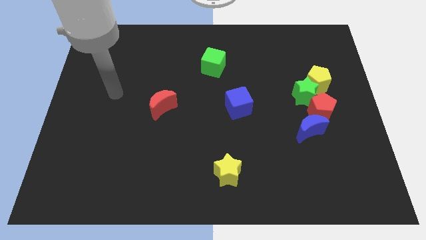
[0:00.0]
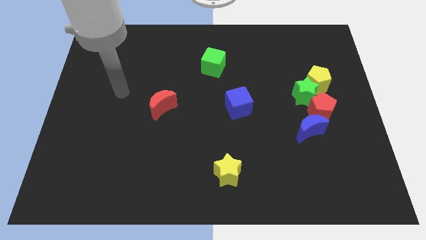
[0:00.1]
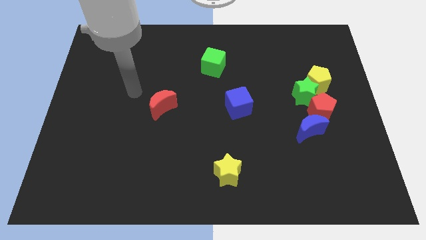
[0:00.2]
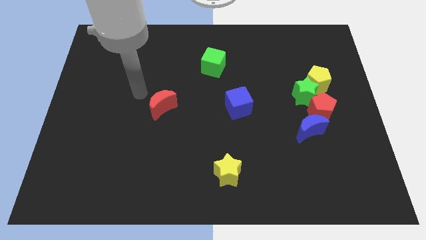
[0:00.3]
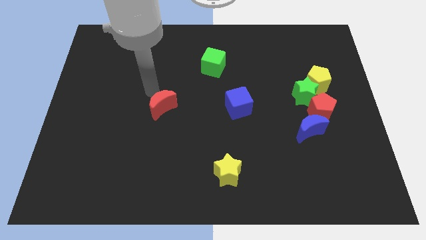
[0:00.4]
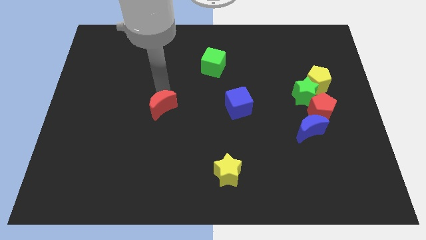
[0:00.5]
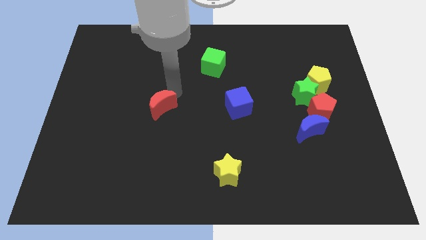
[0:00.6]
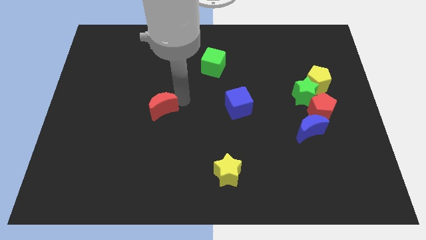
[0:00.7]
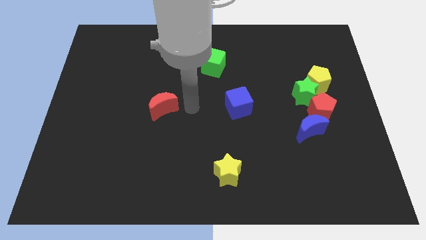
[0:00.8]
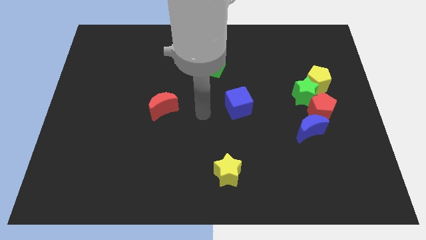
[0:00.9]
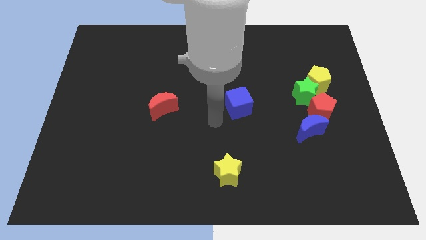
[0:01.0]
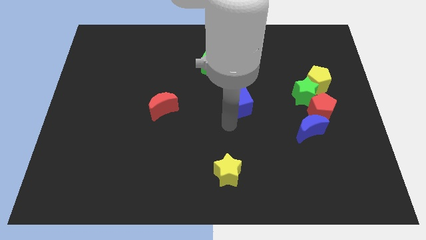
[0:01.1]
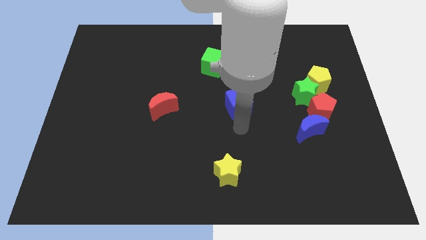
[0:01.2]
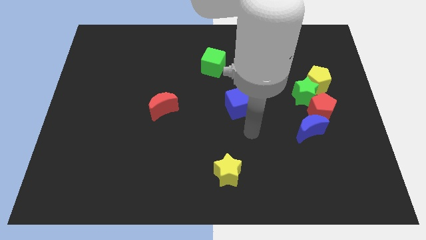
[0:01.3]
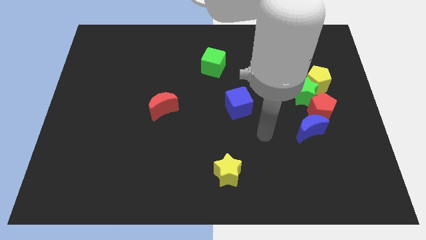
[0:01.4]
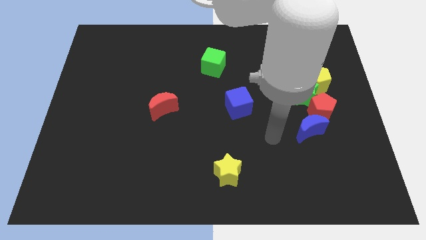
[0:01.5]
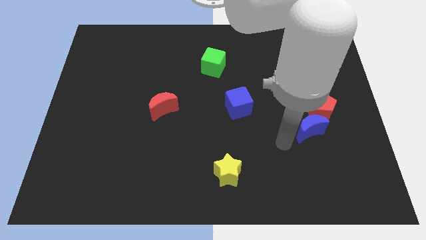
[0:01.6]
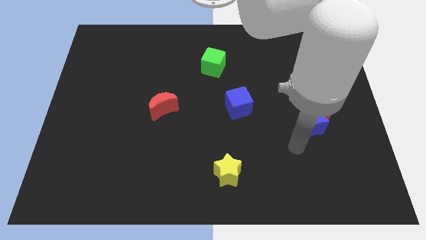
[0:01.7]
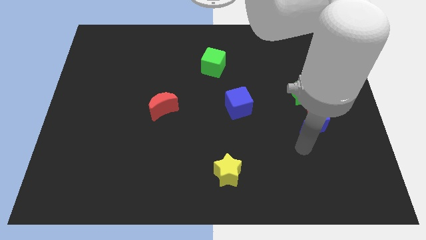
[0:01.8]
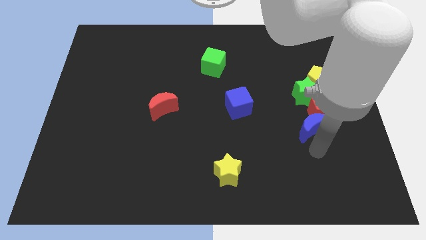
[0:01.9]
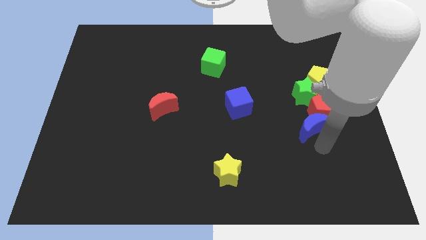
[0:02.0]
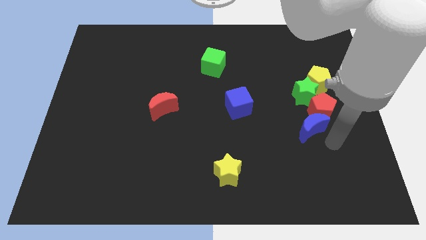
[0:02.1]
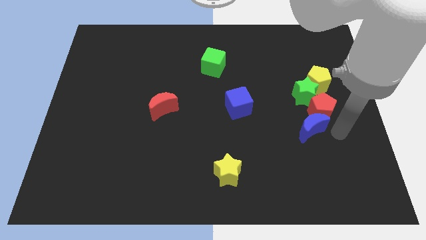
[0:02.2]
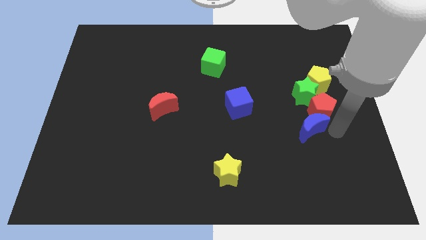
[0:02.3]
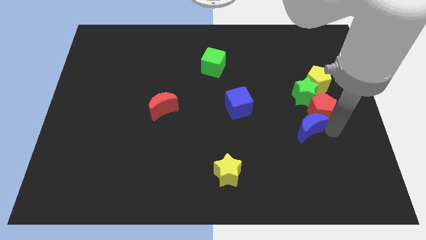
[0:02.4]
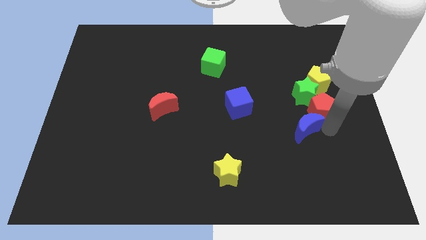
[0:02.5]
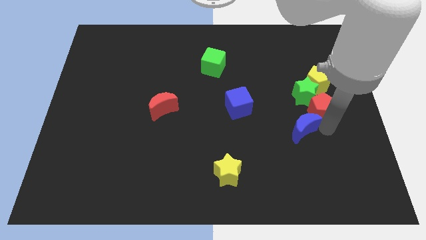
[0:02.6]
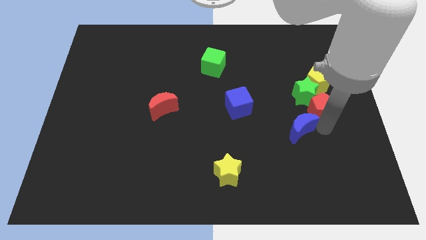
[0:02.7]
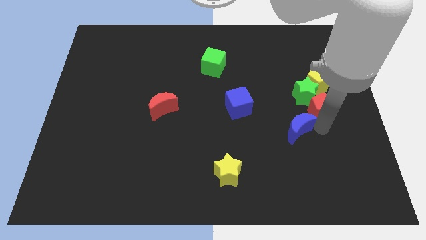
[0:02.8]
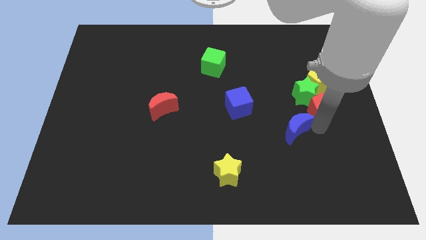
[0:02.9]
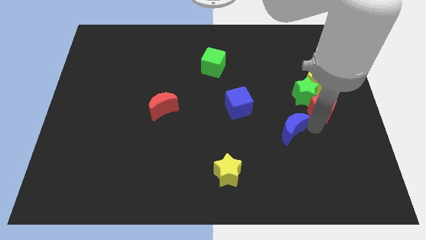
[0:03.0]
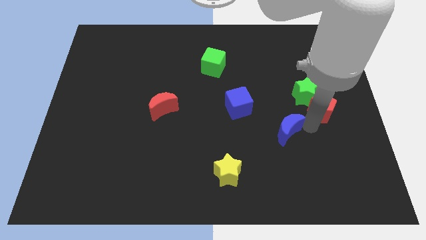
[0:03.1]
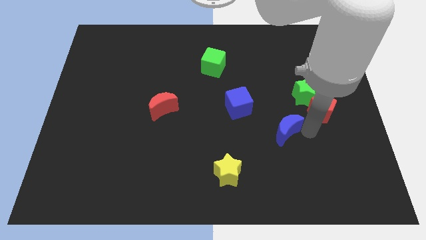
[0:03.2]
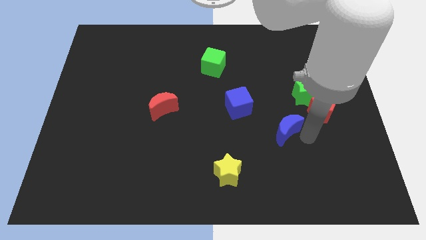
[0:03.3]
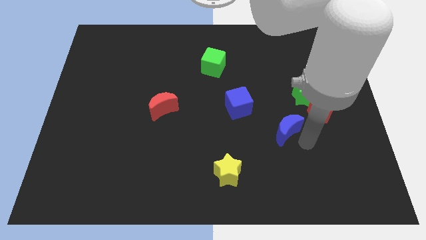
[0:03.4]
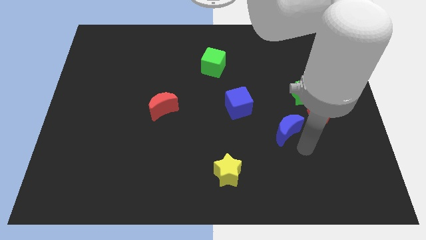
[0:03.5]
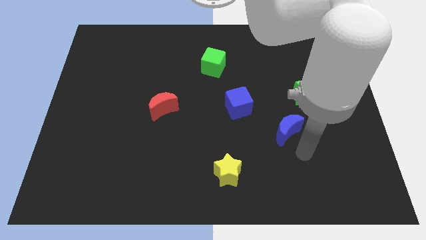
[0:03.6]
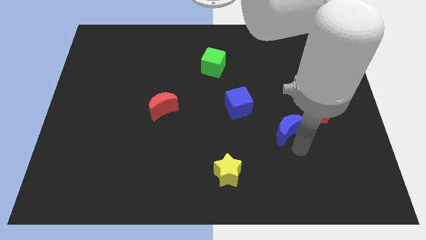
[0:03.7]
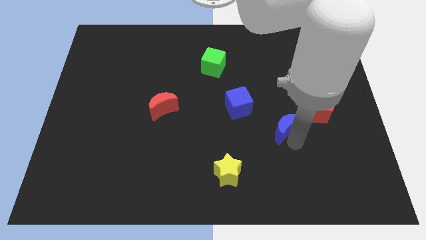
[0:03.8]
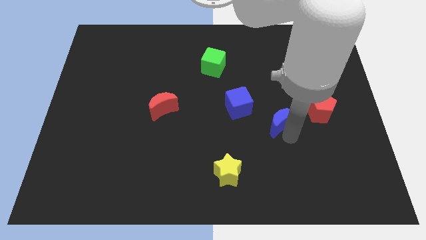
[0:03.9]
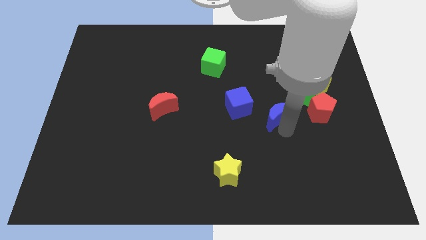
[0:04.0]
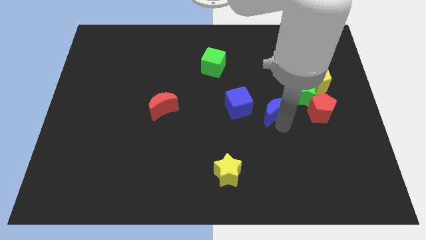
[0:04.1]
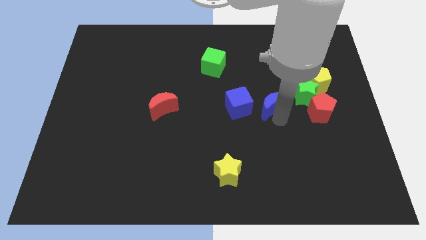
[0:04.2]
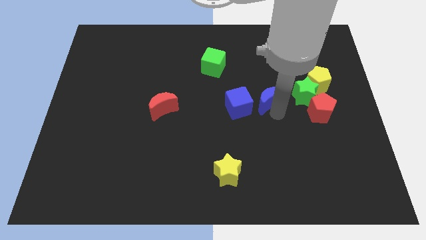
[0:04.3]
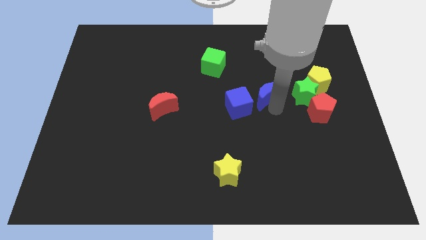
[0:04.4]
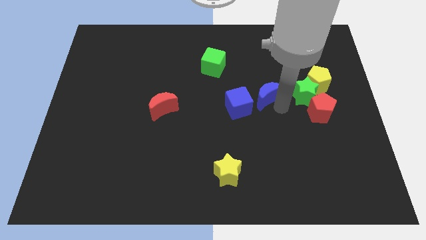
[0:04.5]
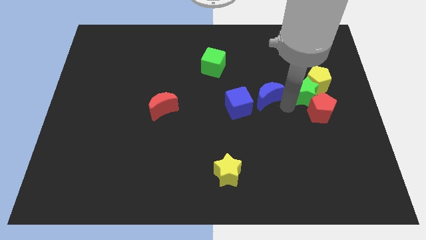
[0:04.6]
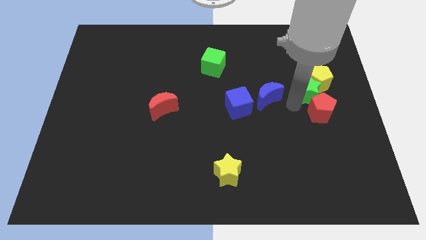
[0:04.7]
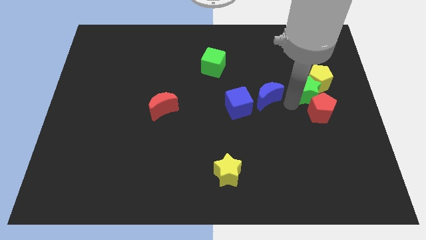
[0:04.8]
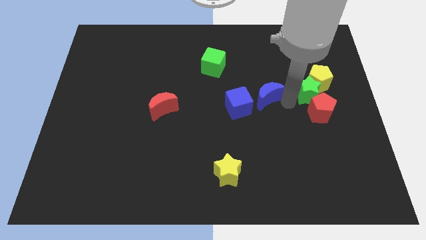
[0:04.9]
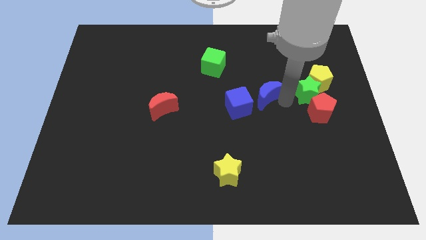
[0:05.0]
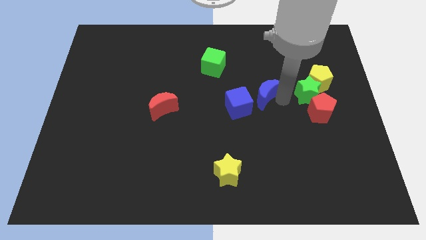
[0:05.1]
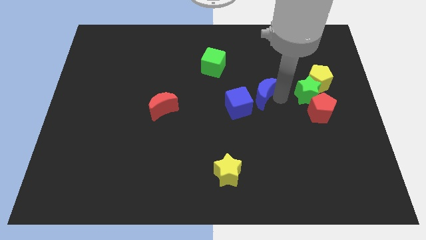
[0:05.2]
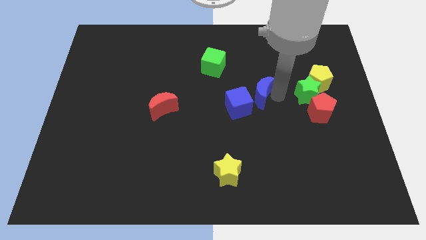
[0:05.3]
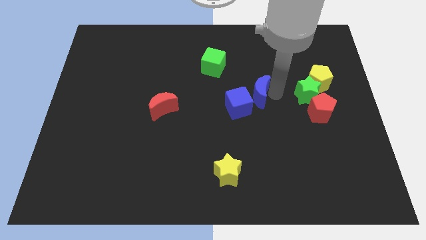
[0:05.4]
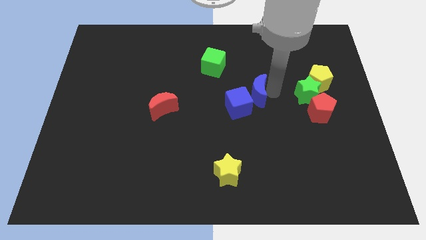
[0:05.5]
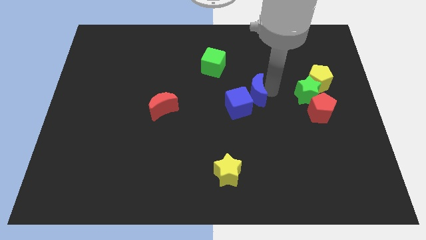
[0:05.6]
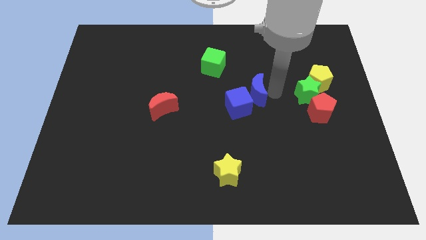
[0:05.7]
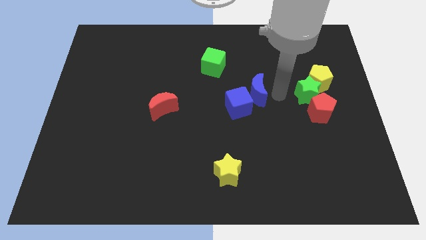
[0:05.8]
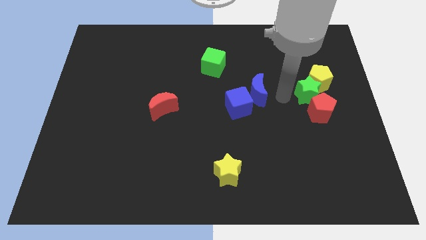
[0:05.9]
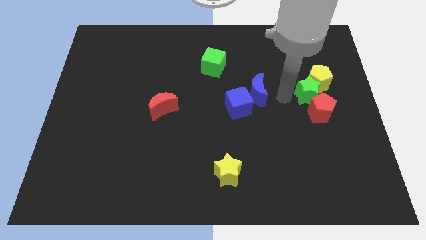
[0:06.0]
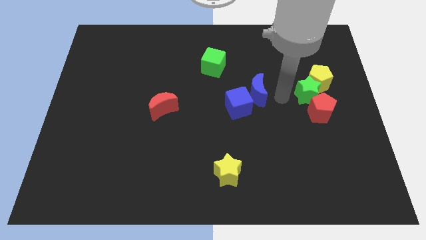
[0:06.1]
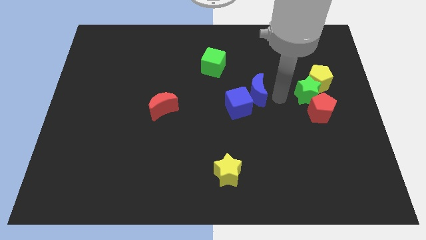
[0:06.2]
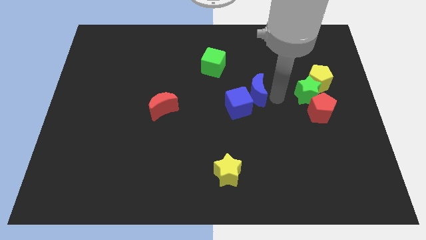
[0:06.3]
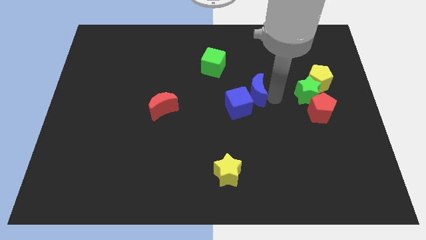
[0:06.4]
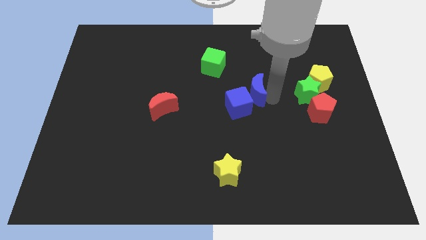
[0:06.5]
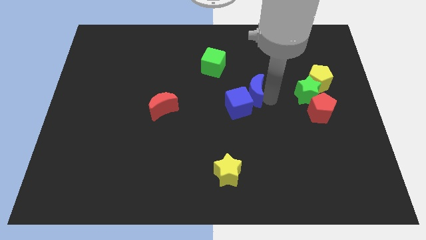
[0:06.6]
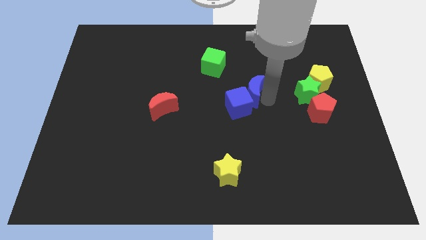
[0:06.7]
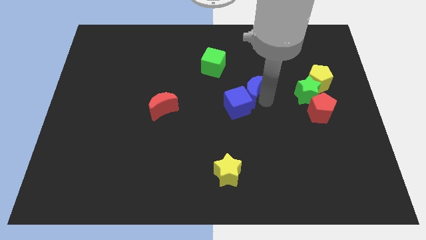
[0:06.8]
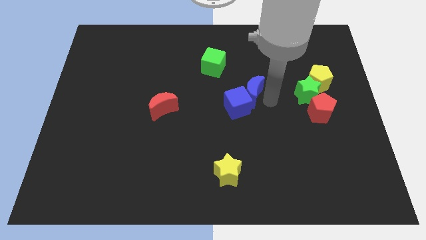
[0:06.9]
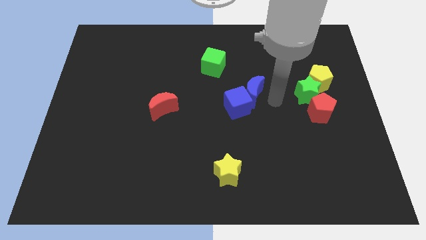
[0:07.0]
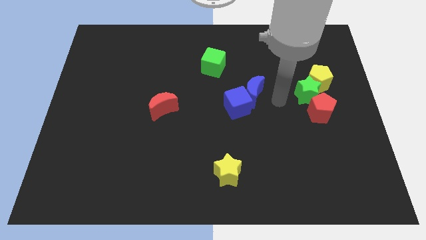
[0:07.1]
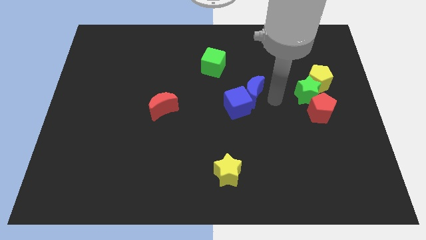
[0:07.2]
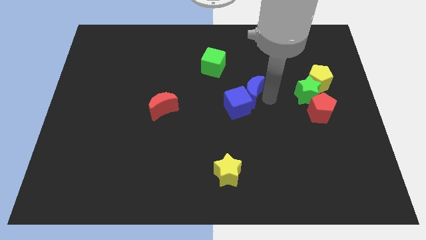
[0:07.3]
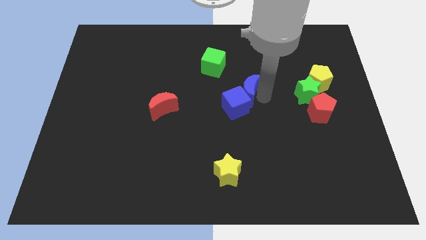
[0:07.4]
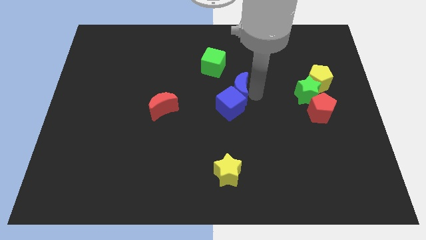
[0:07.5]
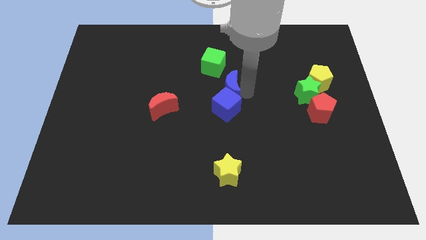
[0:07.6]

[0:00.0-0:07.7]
move the blue moon to the top left side of the blue cube
